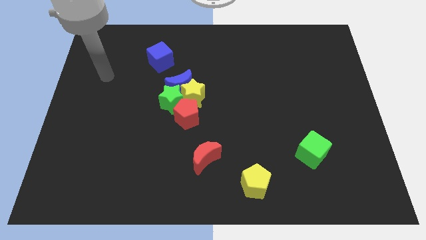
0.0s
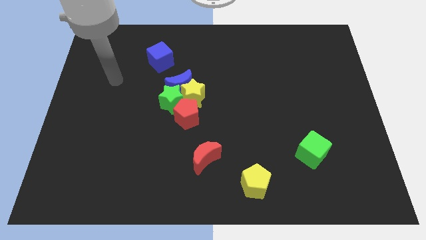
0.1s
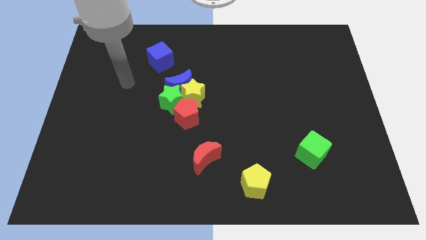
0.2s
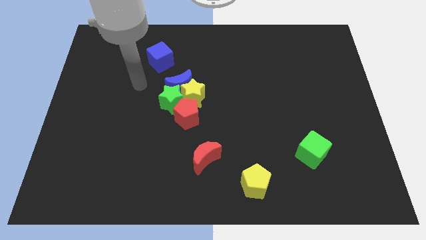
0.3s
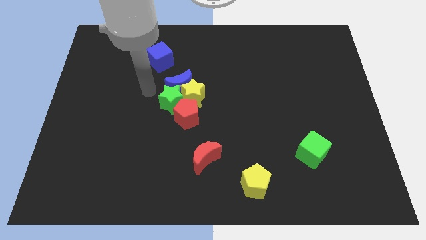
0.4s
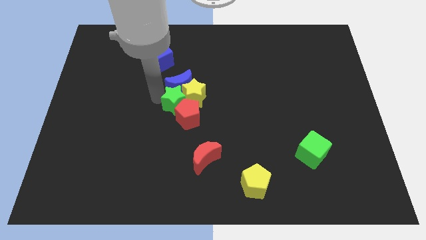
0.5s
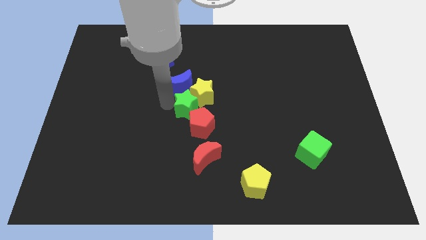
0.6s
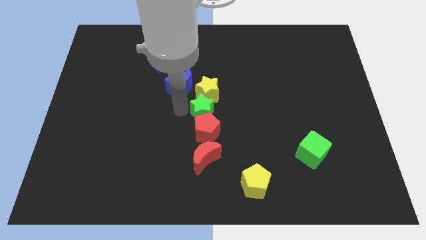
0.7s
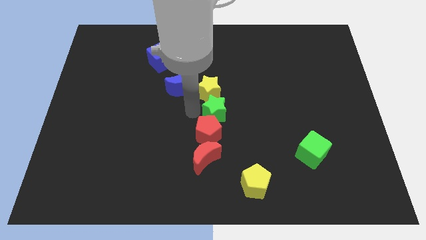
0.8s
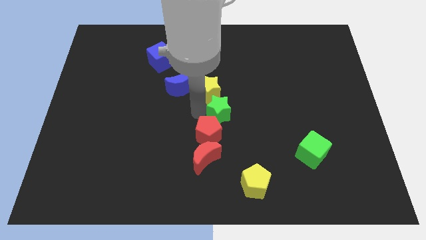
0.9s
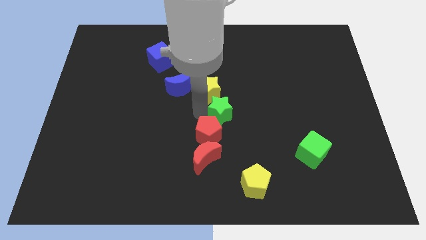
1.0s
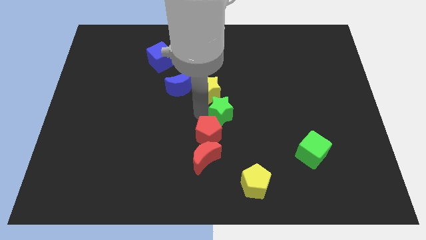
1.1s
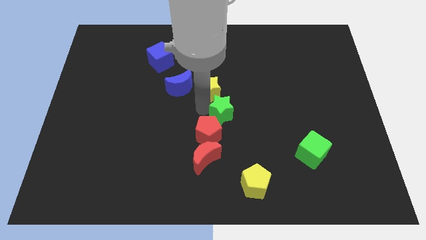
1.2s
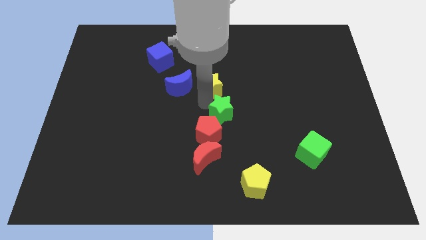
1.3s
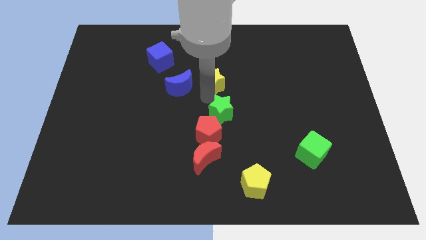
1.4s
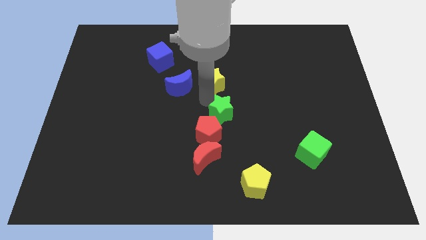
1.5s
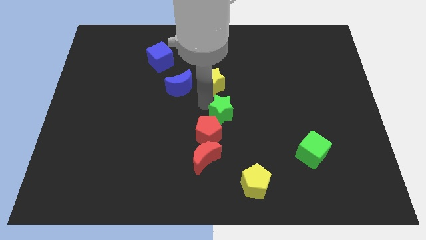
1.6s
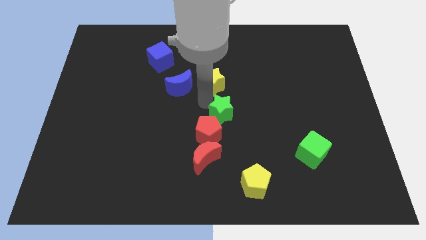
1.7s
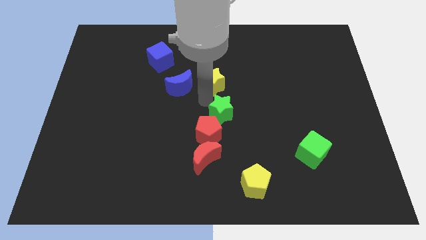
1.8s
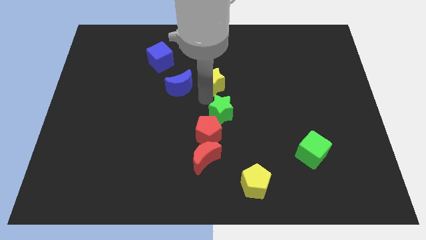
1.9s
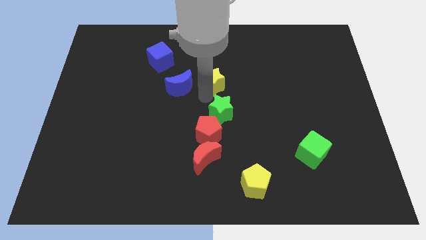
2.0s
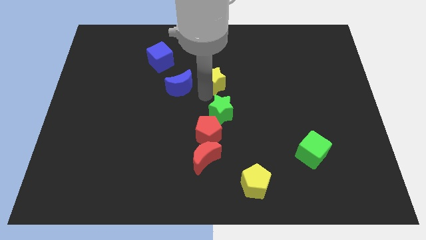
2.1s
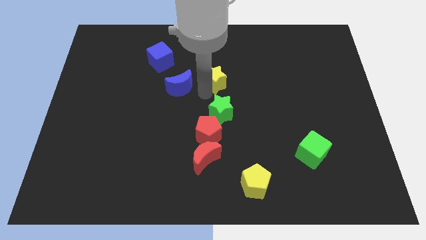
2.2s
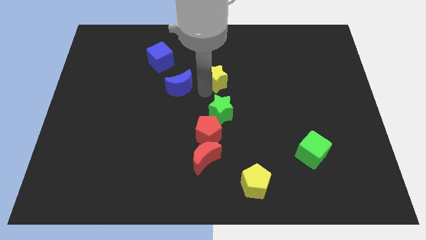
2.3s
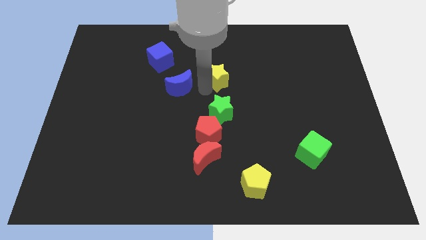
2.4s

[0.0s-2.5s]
pull the yellow star apart from the group

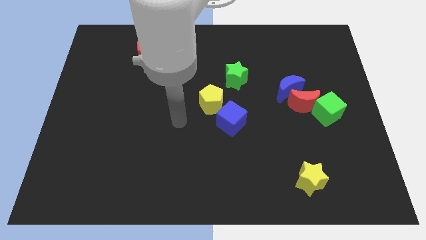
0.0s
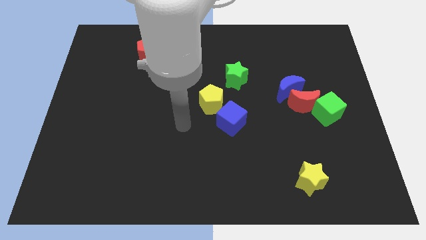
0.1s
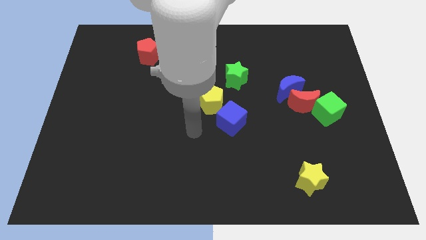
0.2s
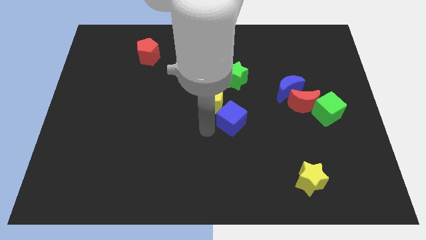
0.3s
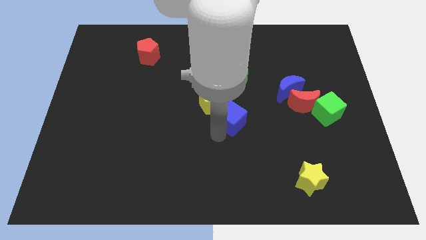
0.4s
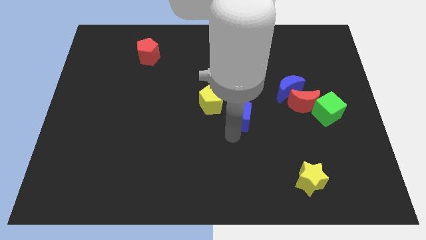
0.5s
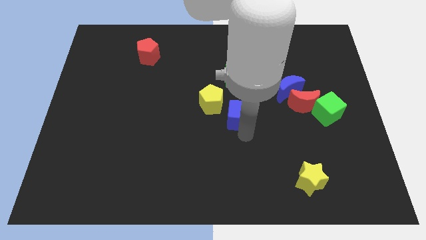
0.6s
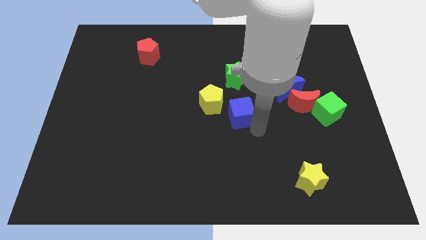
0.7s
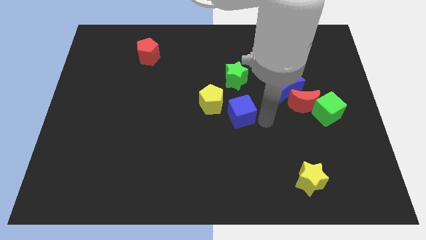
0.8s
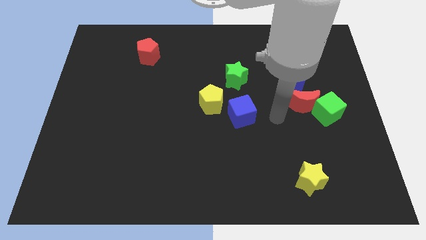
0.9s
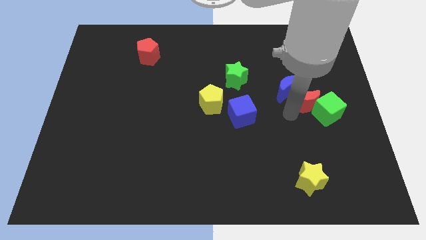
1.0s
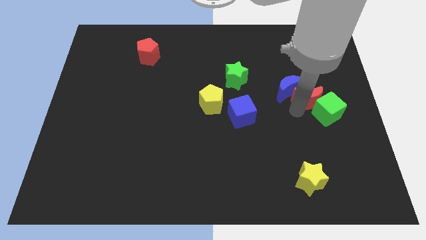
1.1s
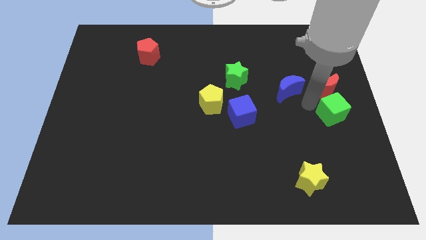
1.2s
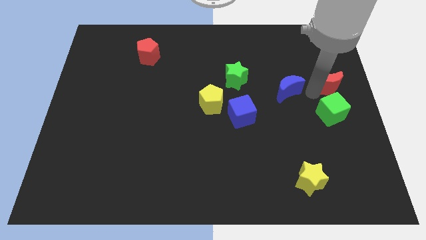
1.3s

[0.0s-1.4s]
separate the blue moon from the red moon

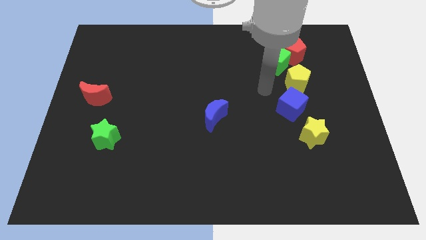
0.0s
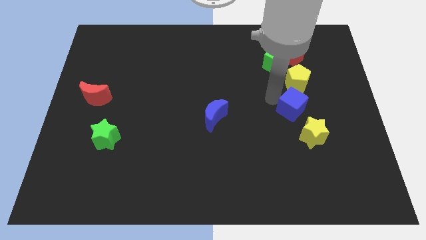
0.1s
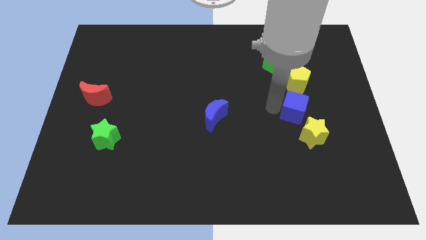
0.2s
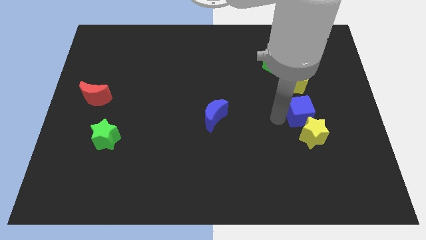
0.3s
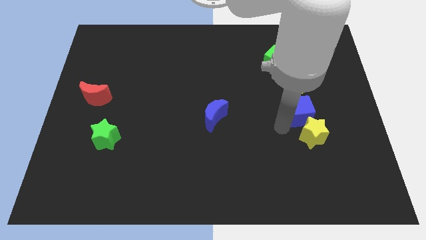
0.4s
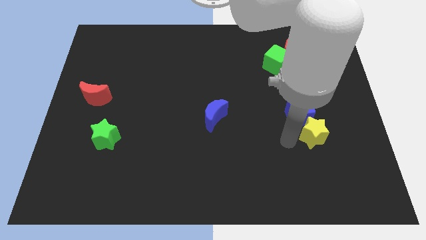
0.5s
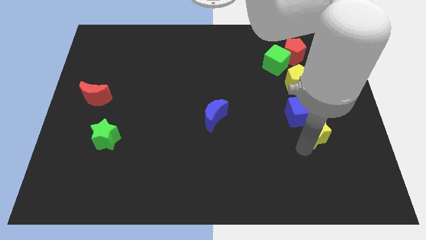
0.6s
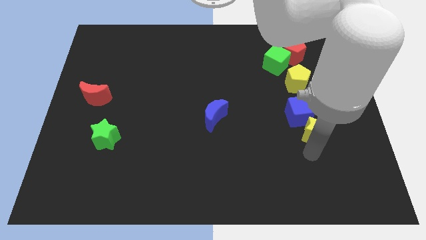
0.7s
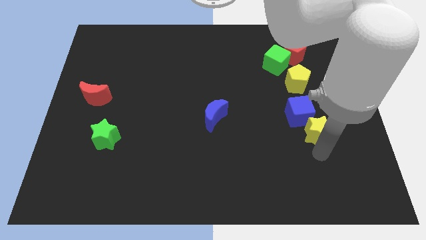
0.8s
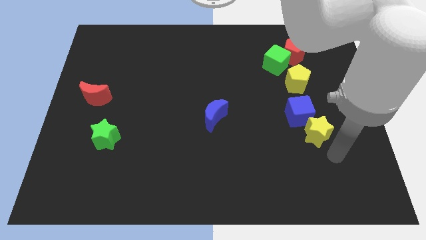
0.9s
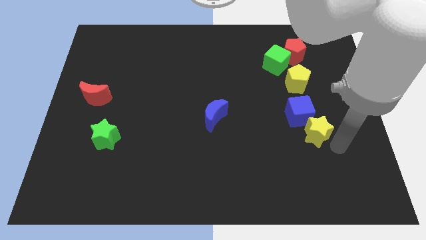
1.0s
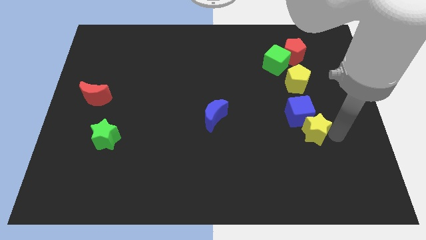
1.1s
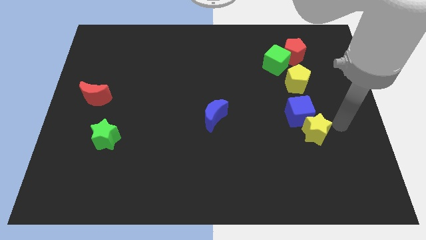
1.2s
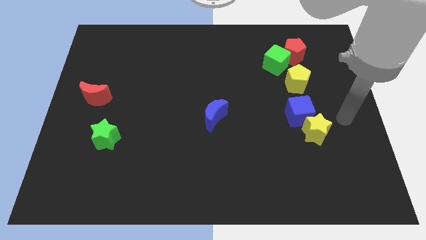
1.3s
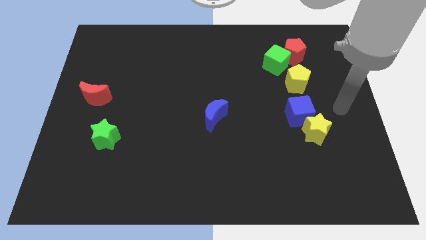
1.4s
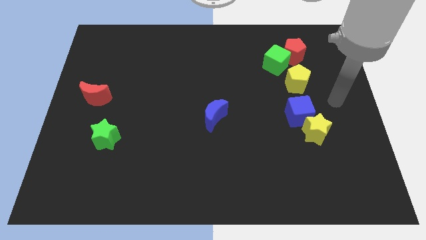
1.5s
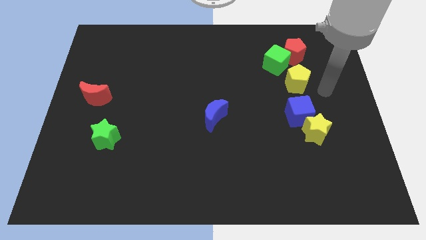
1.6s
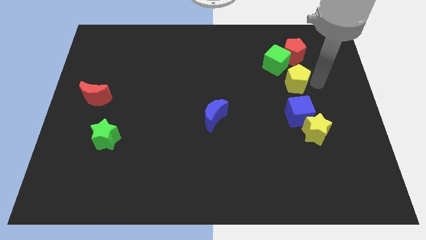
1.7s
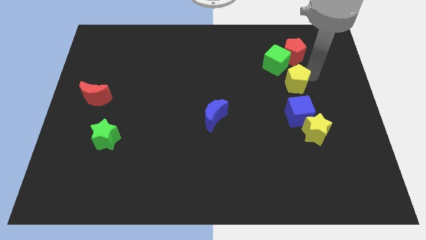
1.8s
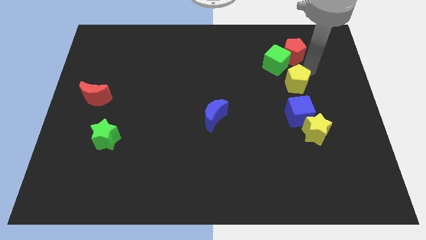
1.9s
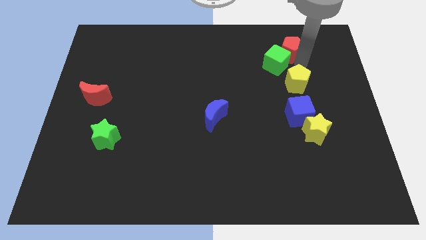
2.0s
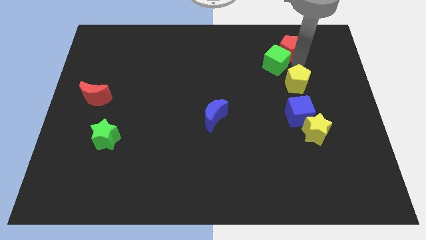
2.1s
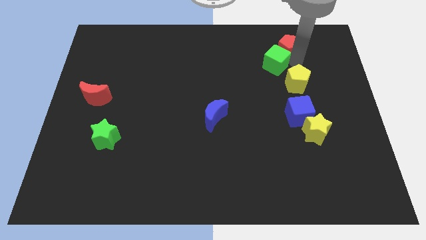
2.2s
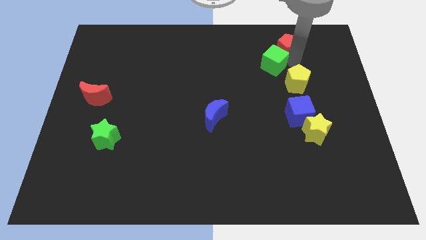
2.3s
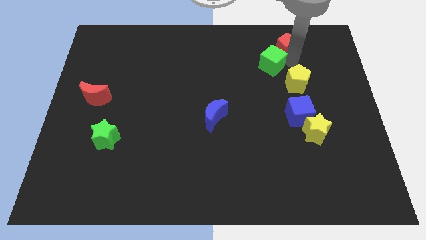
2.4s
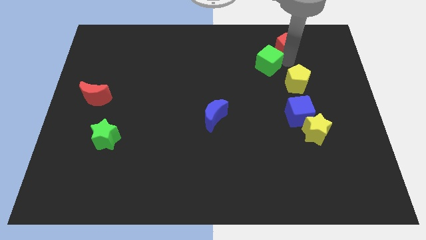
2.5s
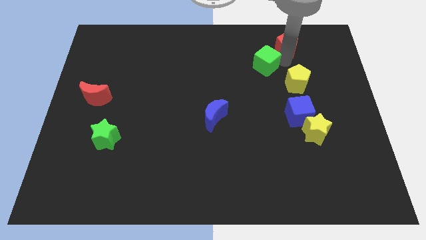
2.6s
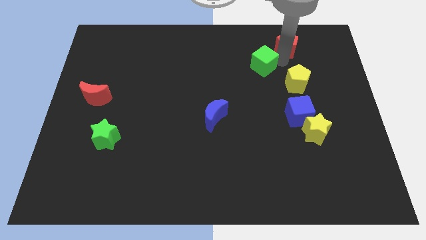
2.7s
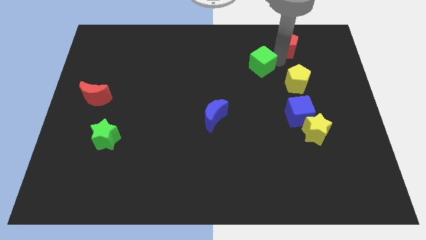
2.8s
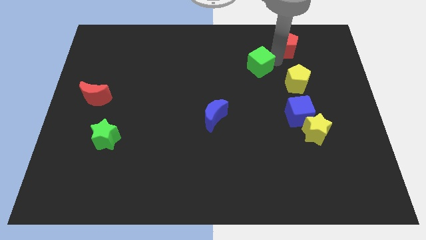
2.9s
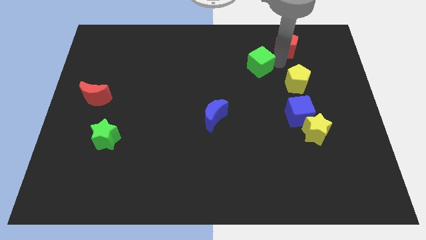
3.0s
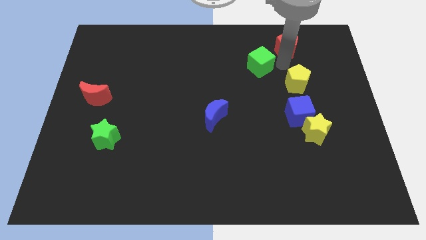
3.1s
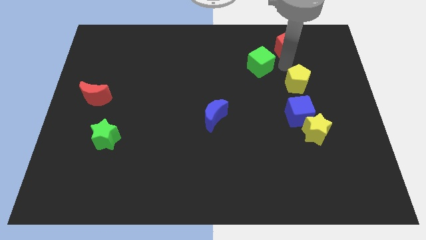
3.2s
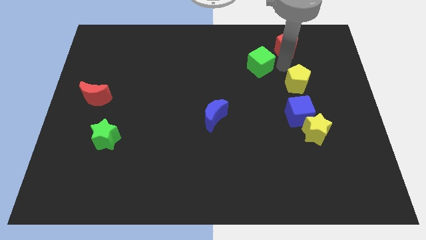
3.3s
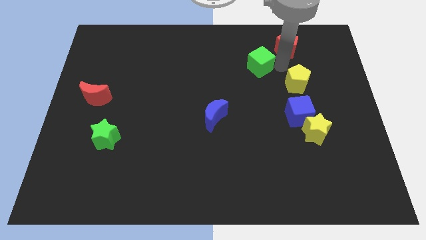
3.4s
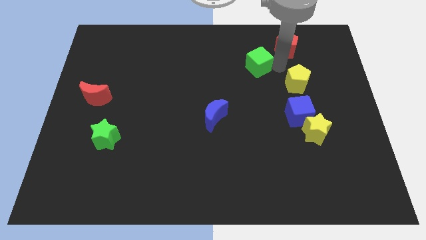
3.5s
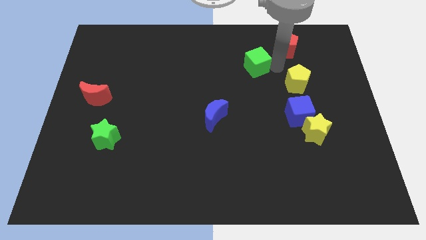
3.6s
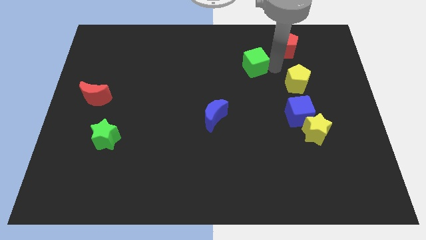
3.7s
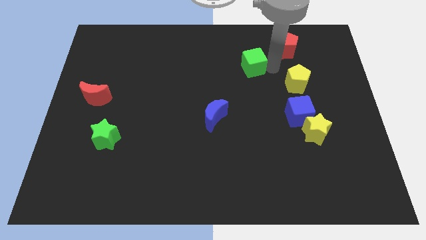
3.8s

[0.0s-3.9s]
pull the green cube apart from the red pentagon and yellow pentagon

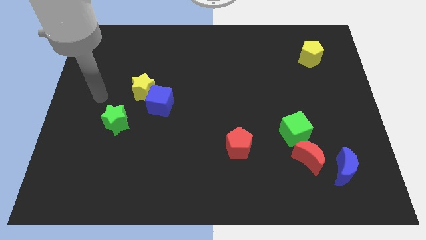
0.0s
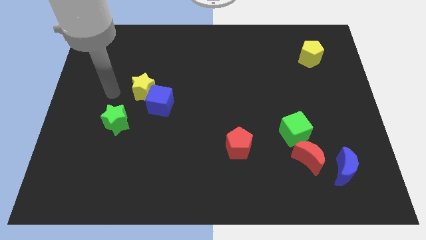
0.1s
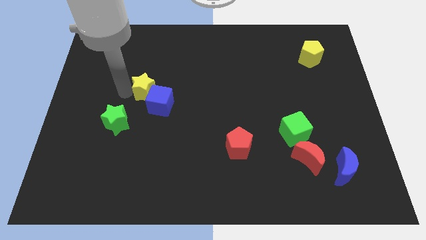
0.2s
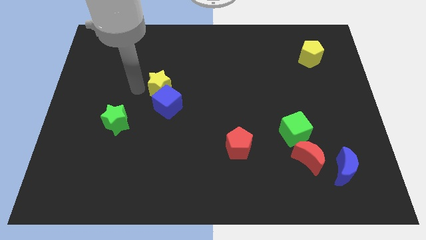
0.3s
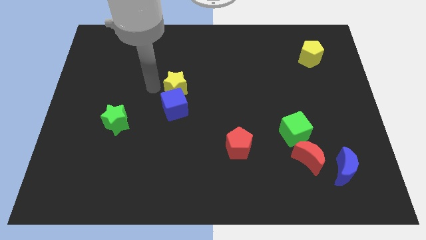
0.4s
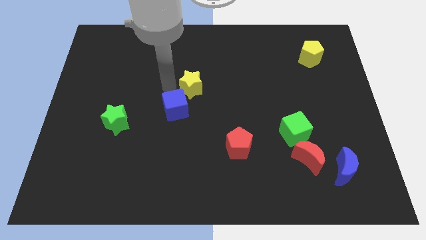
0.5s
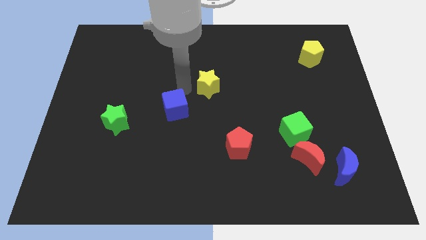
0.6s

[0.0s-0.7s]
move the blue cube away from the yellow star

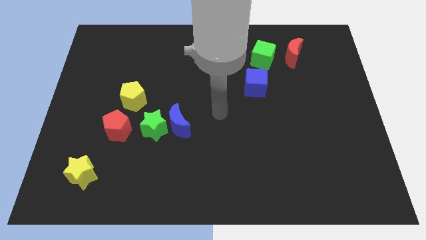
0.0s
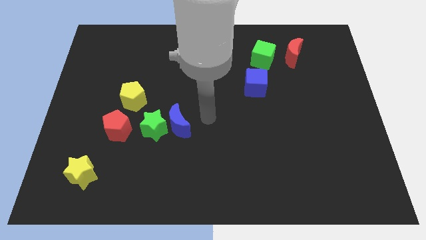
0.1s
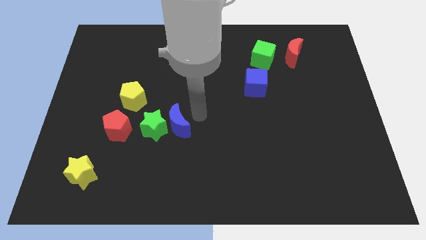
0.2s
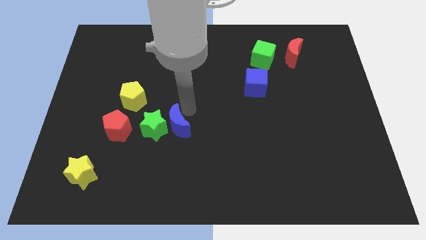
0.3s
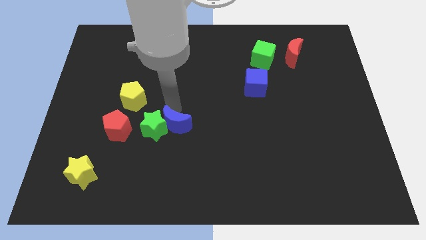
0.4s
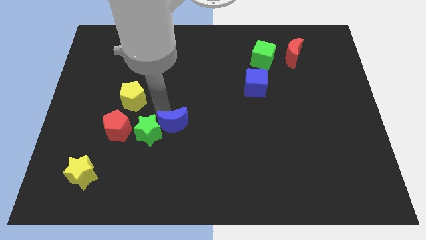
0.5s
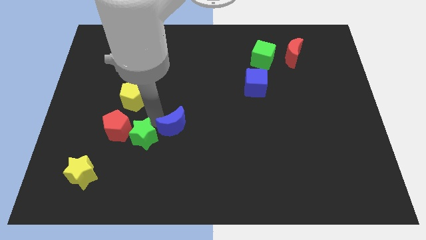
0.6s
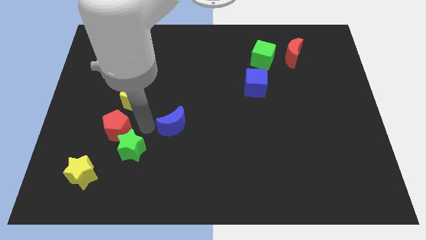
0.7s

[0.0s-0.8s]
separate the blue moon from the green star
